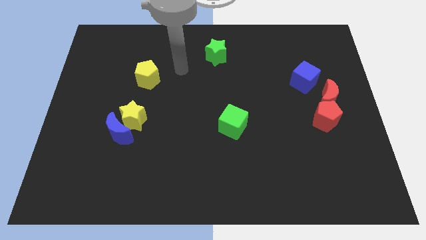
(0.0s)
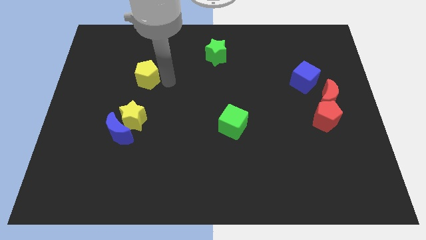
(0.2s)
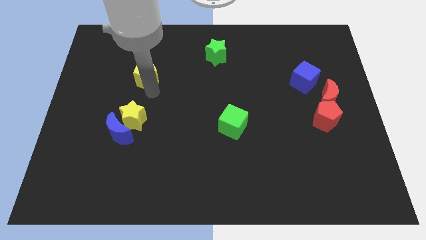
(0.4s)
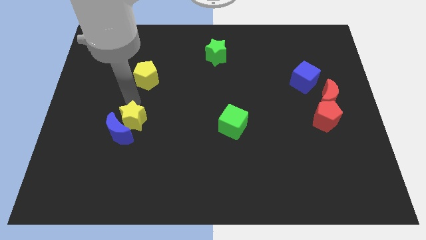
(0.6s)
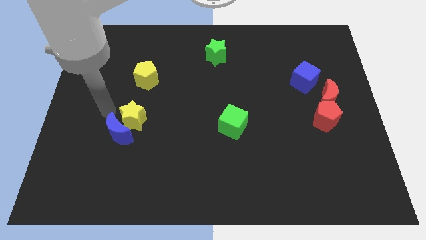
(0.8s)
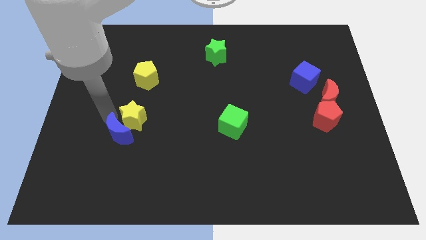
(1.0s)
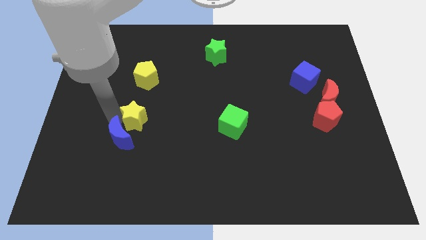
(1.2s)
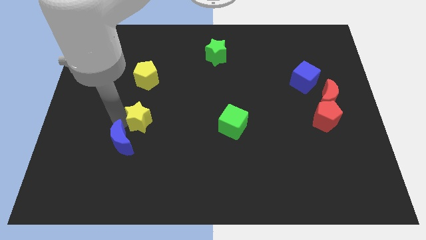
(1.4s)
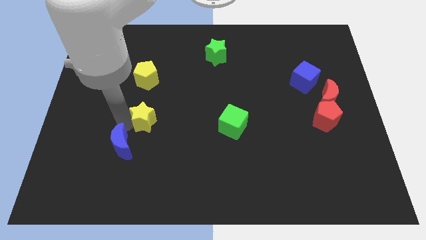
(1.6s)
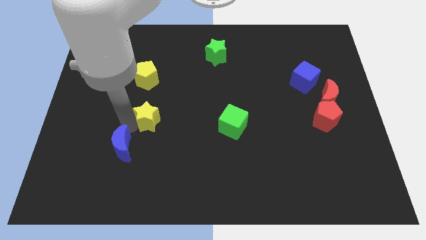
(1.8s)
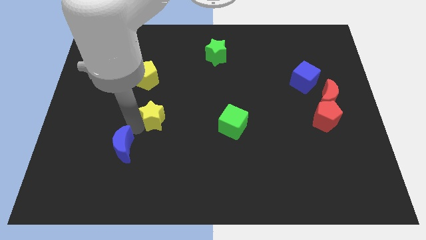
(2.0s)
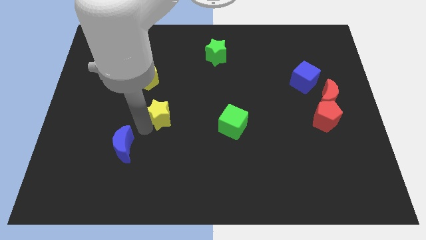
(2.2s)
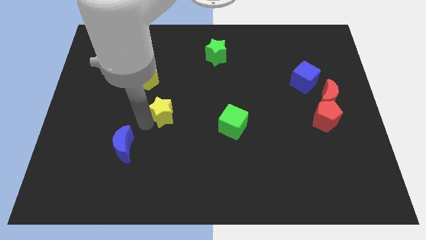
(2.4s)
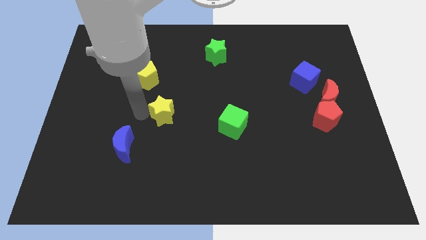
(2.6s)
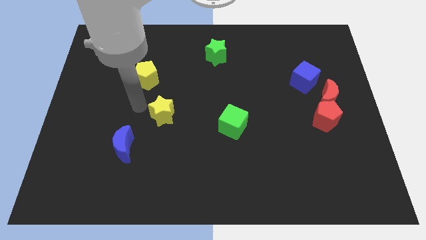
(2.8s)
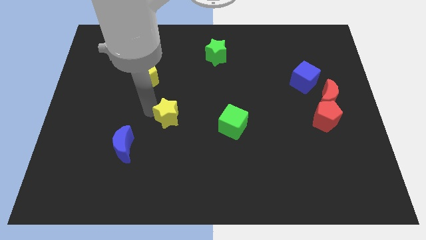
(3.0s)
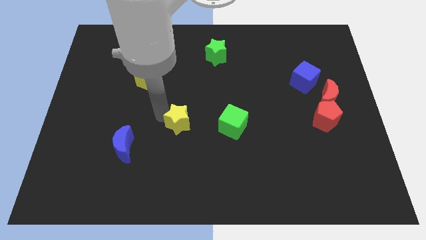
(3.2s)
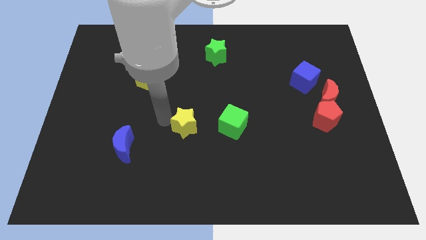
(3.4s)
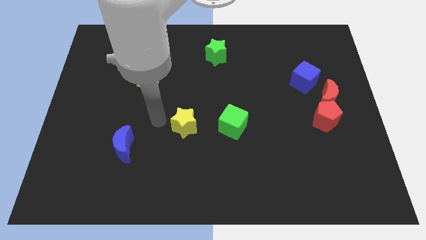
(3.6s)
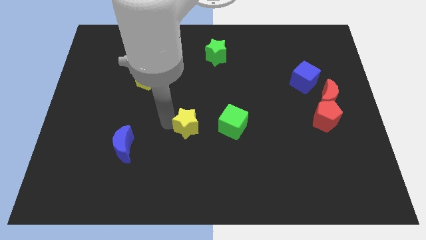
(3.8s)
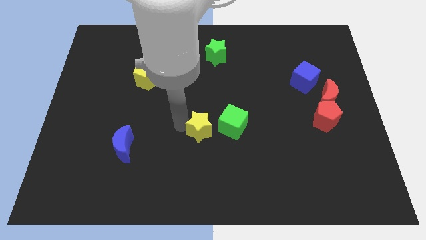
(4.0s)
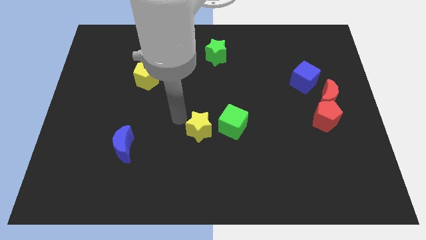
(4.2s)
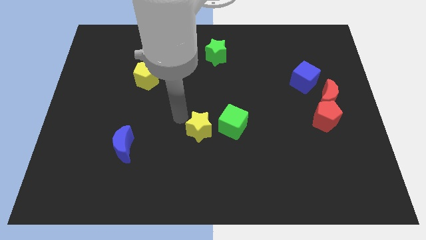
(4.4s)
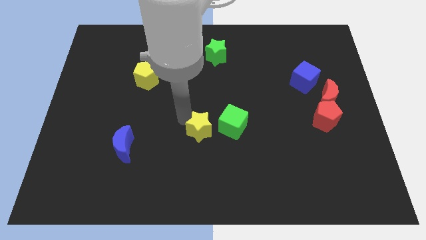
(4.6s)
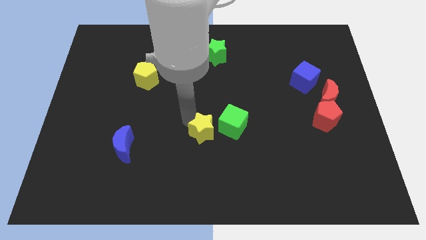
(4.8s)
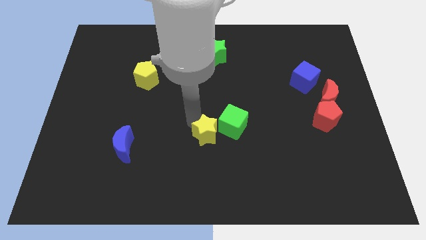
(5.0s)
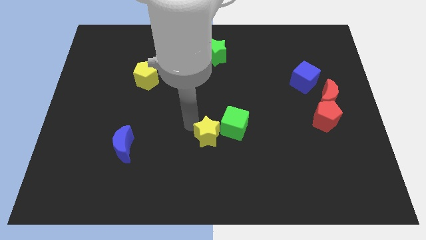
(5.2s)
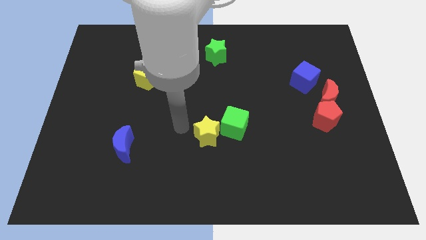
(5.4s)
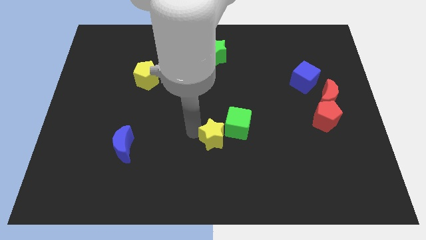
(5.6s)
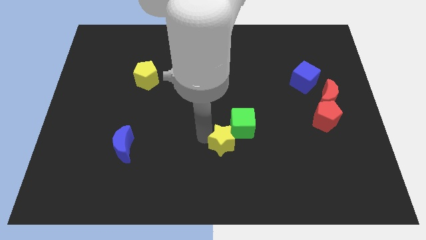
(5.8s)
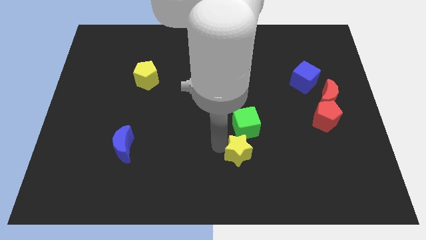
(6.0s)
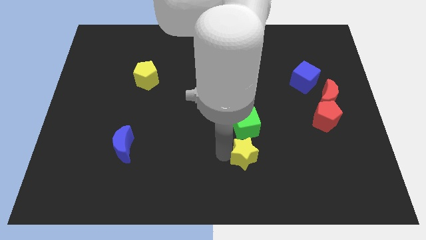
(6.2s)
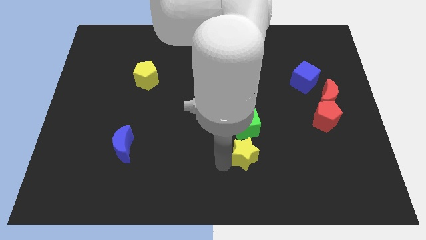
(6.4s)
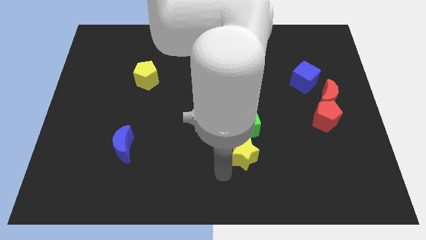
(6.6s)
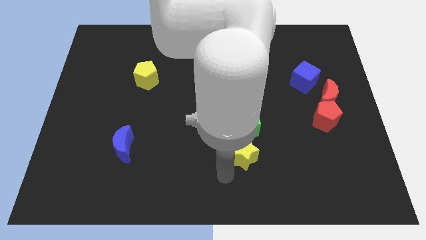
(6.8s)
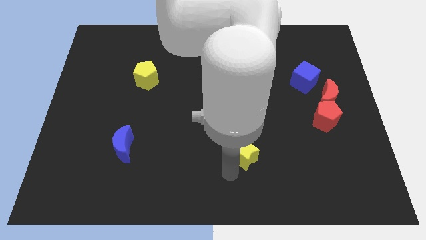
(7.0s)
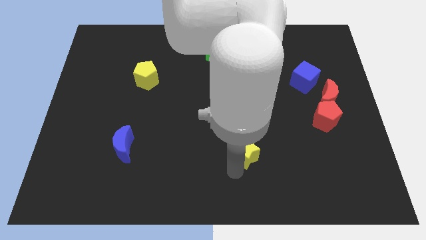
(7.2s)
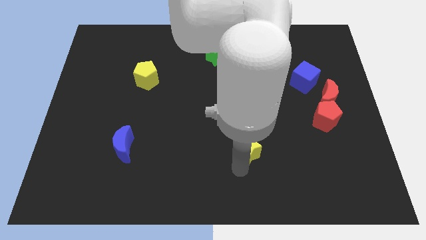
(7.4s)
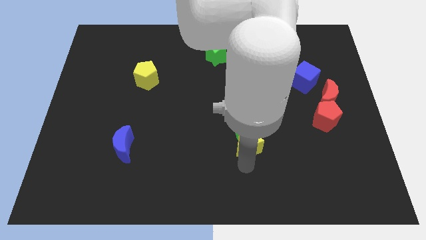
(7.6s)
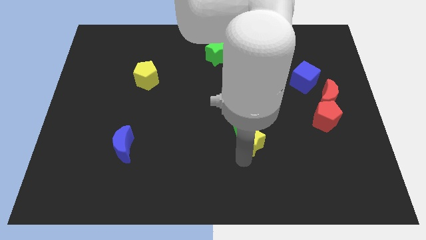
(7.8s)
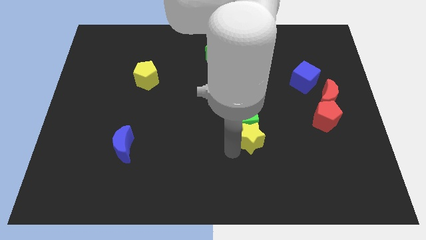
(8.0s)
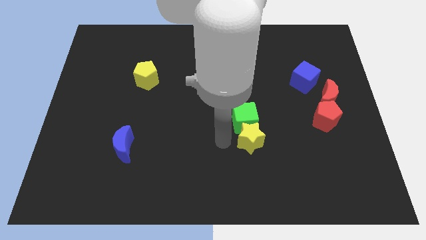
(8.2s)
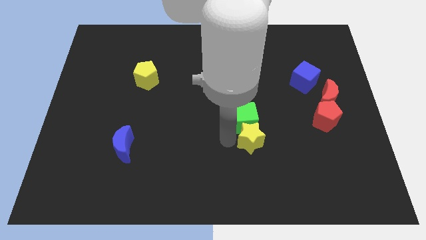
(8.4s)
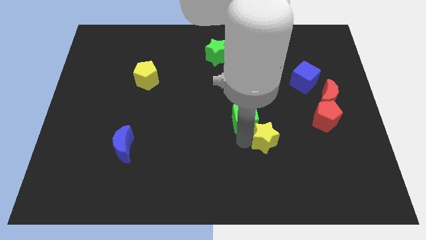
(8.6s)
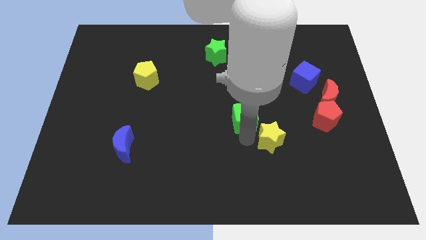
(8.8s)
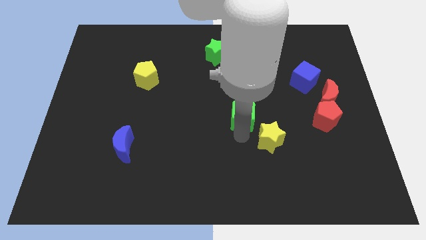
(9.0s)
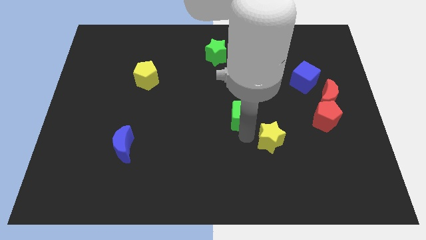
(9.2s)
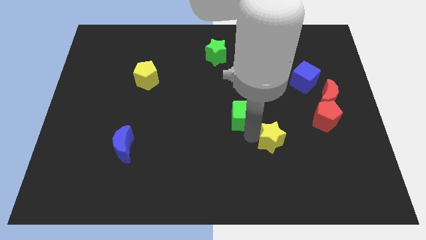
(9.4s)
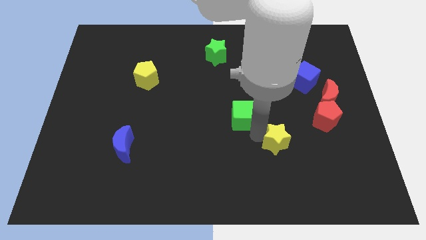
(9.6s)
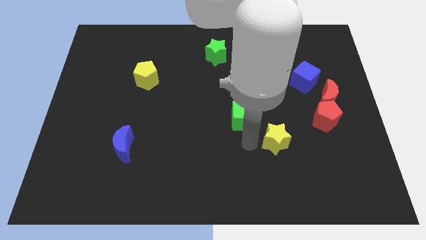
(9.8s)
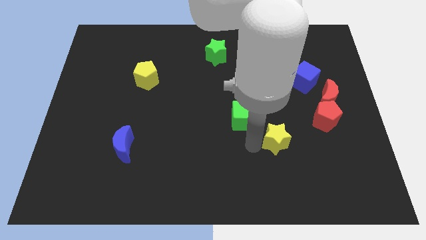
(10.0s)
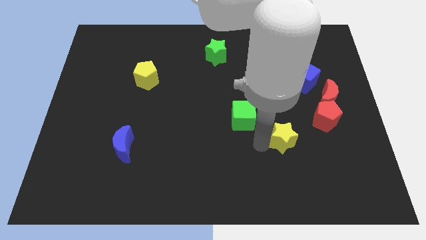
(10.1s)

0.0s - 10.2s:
move the yellow star to the bottom left of the red pentagon

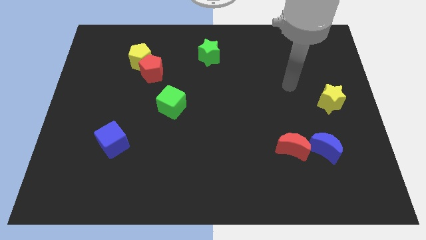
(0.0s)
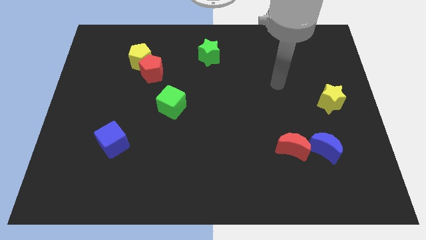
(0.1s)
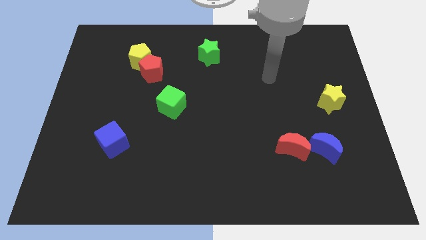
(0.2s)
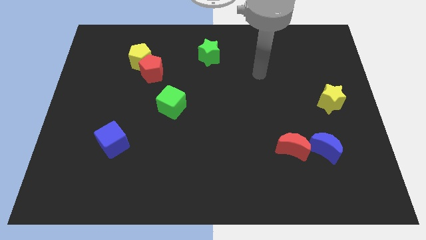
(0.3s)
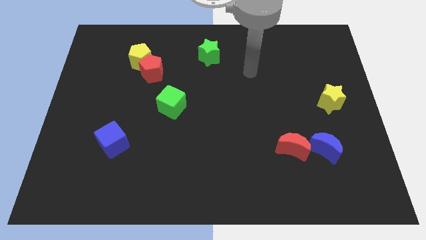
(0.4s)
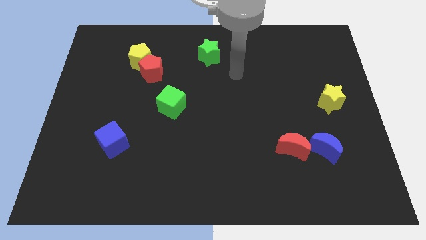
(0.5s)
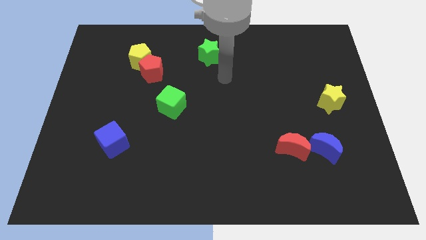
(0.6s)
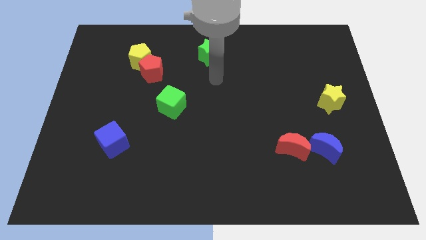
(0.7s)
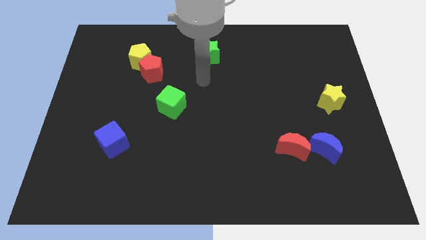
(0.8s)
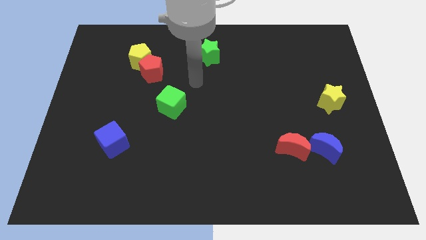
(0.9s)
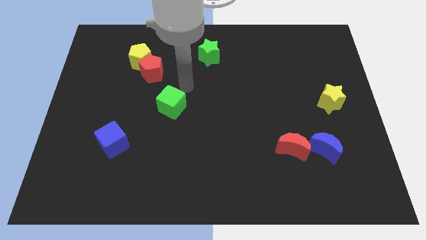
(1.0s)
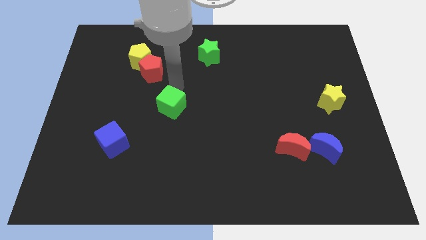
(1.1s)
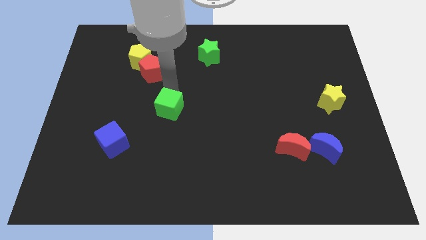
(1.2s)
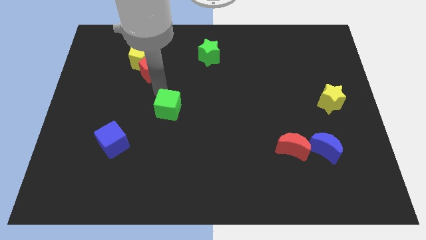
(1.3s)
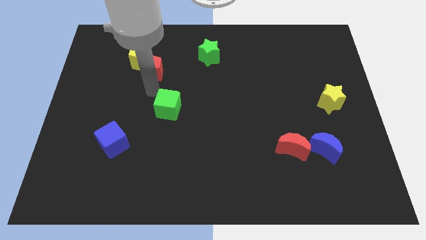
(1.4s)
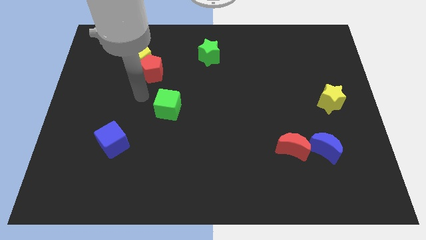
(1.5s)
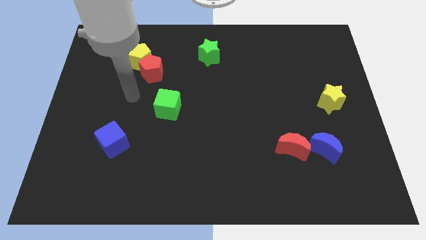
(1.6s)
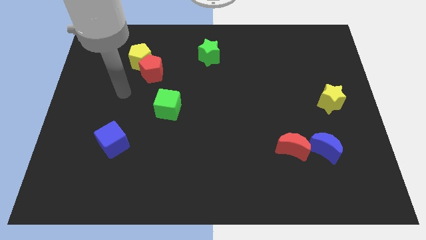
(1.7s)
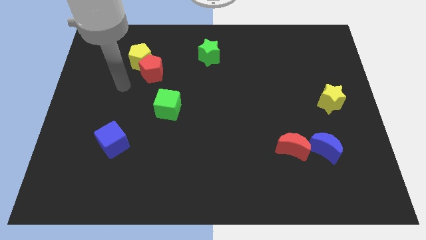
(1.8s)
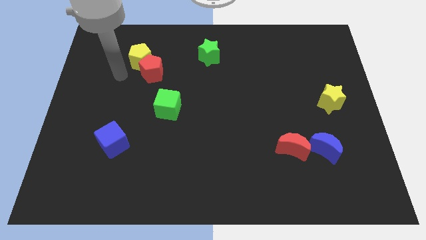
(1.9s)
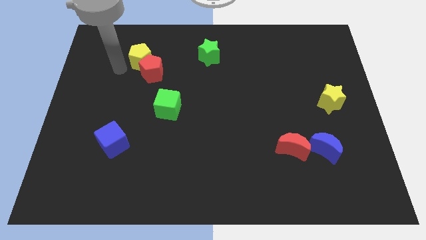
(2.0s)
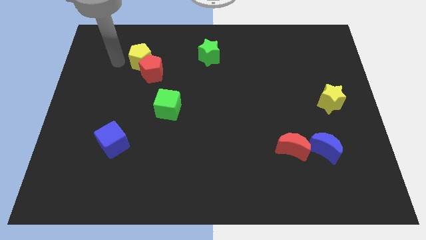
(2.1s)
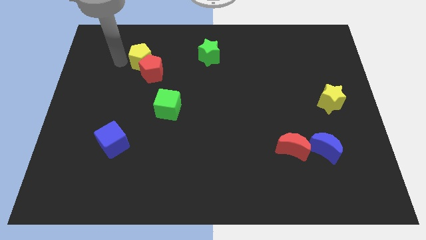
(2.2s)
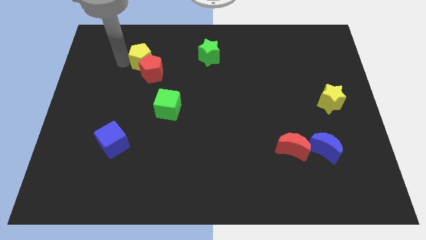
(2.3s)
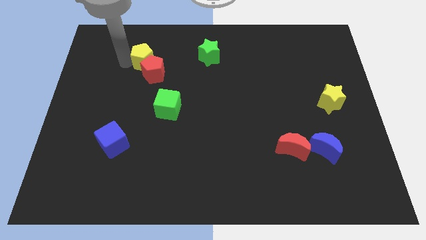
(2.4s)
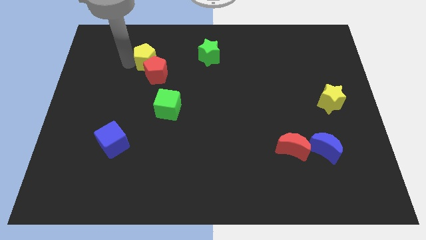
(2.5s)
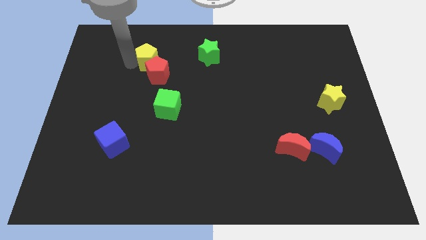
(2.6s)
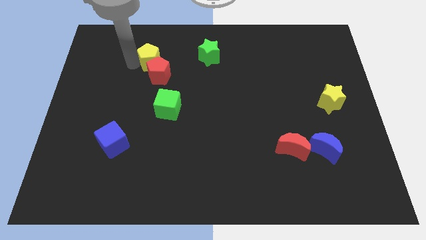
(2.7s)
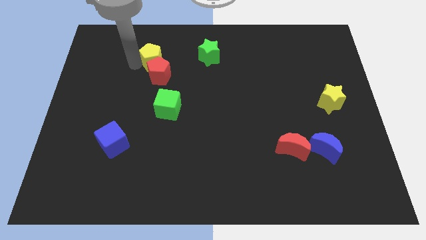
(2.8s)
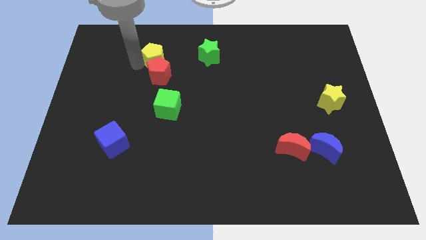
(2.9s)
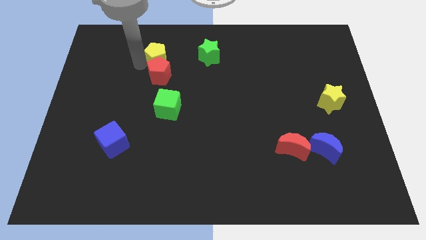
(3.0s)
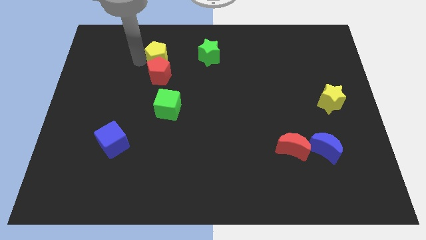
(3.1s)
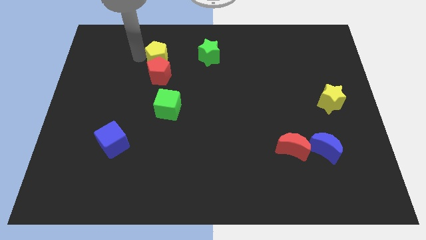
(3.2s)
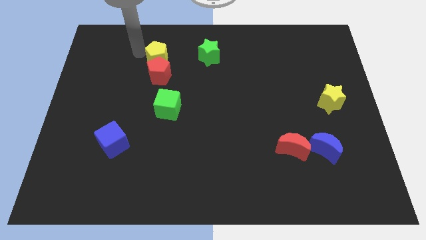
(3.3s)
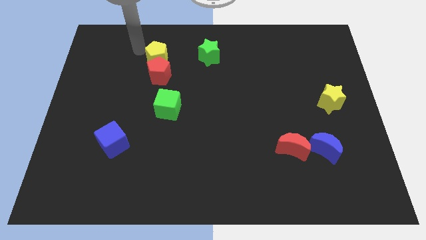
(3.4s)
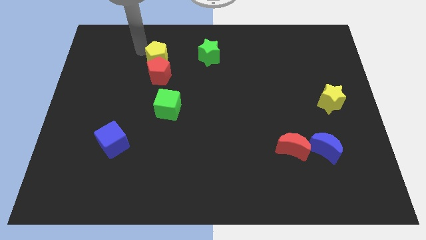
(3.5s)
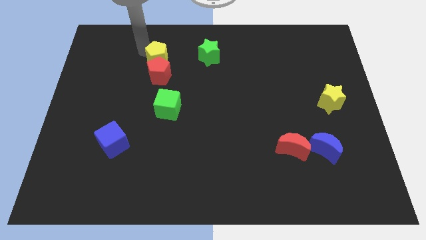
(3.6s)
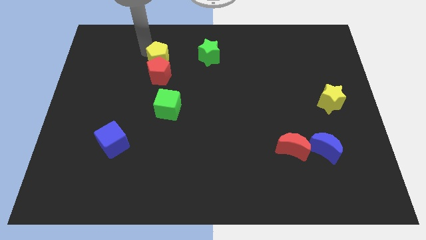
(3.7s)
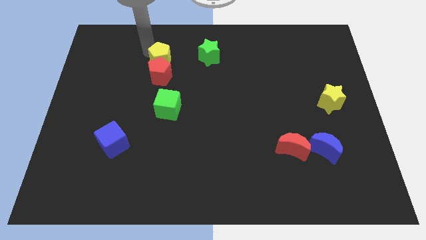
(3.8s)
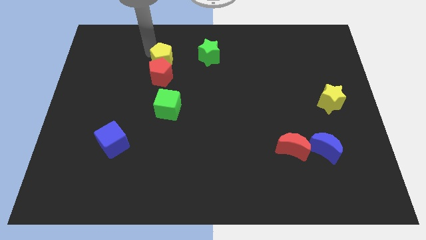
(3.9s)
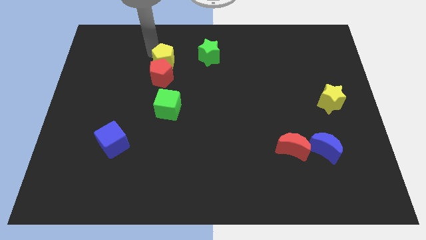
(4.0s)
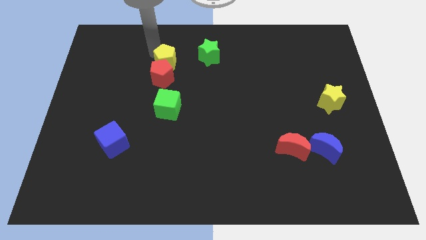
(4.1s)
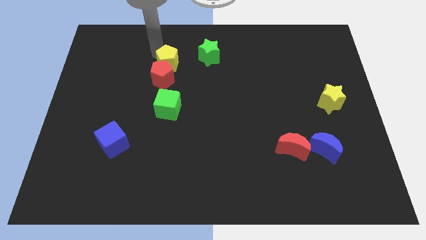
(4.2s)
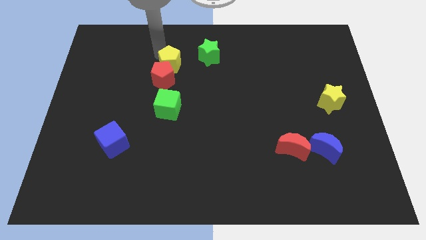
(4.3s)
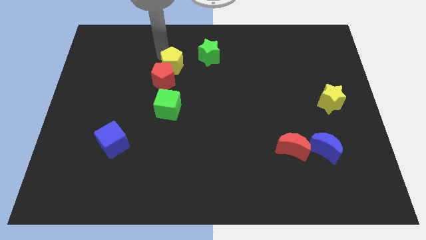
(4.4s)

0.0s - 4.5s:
put the yellow pentagon to the bottom left side of the green star
